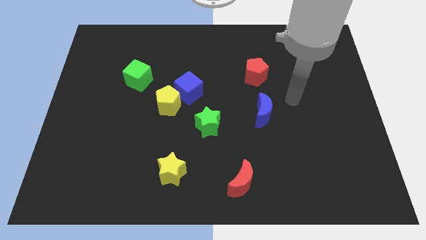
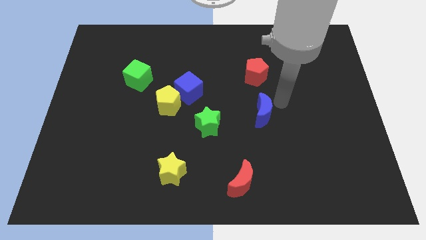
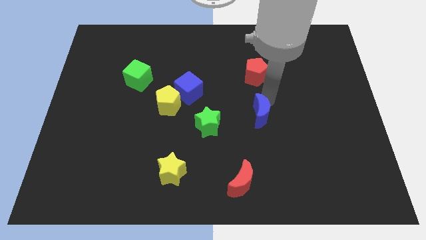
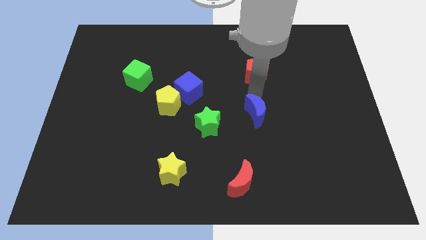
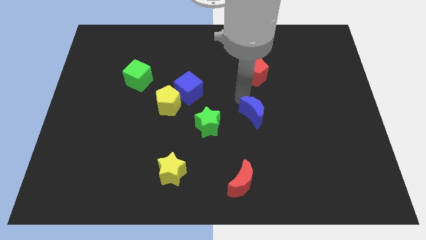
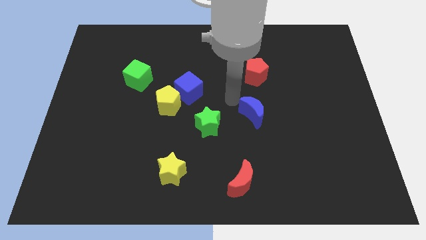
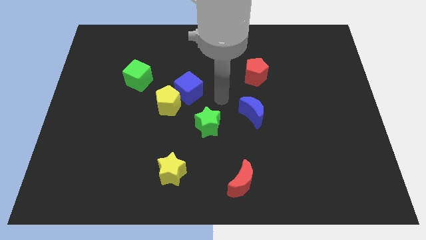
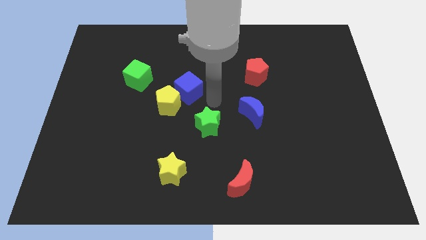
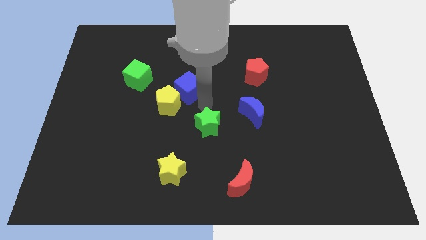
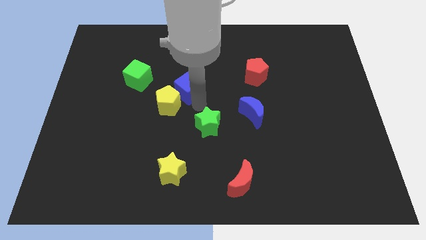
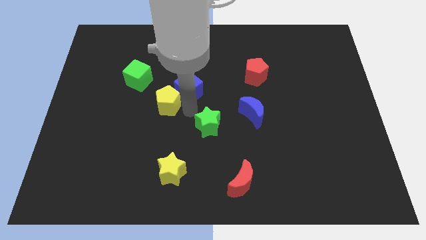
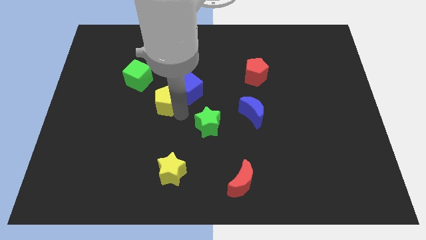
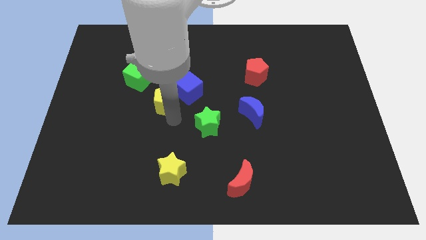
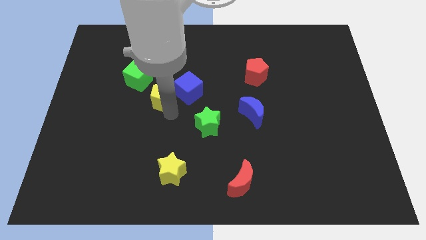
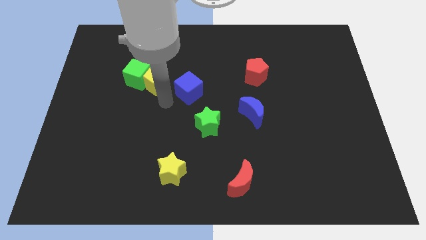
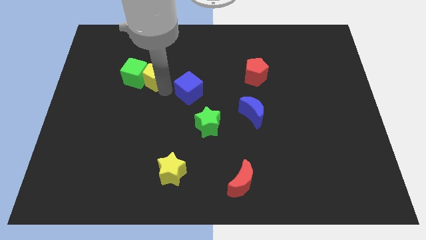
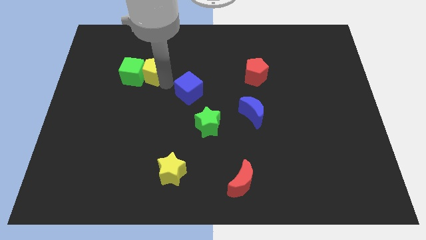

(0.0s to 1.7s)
separate the blue cube from the yellow pentagon

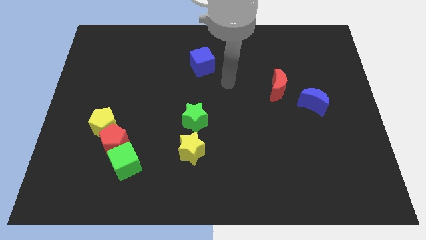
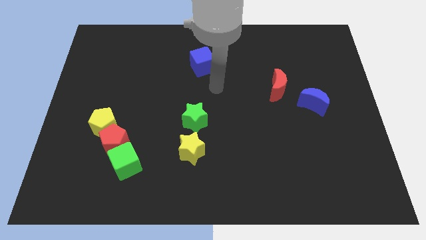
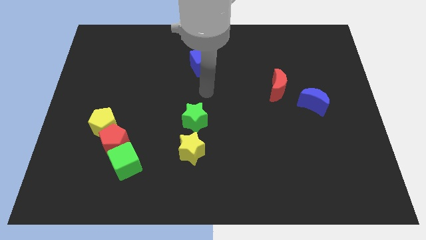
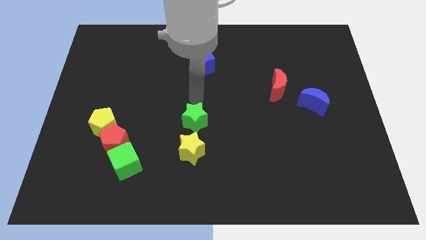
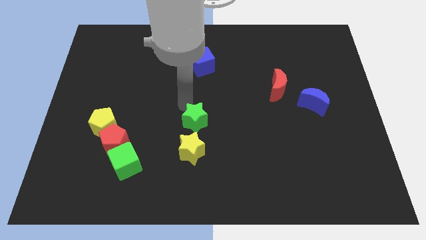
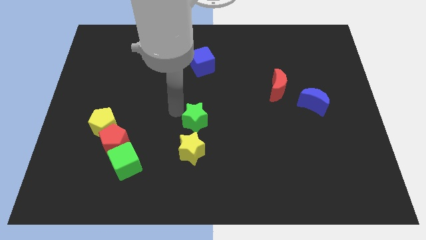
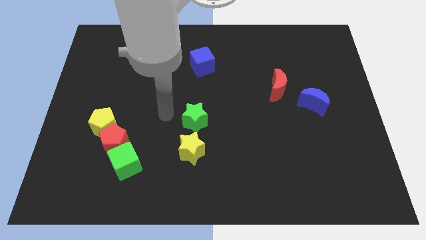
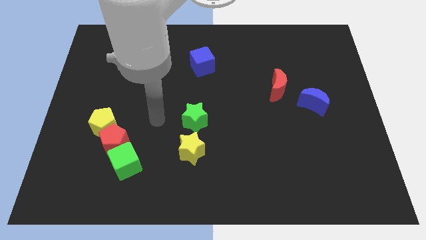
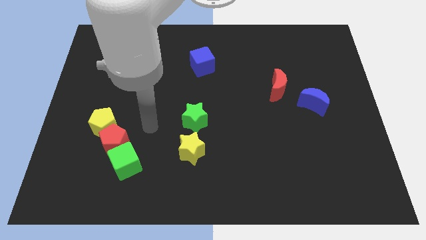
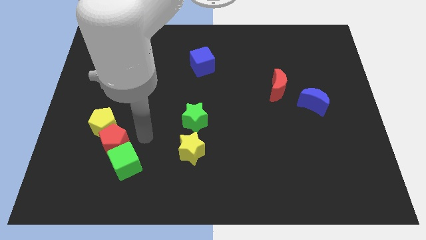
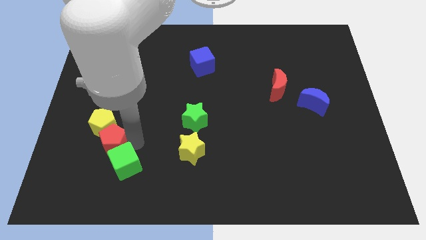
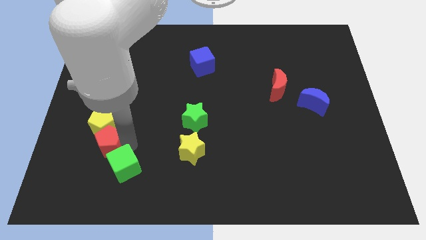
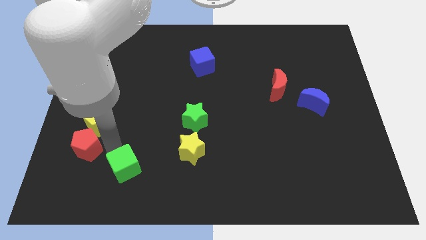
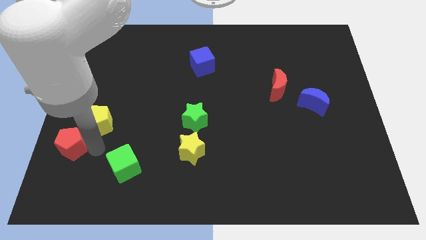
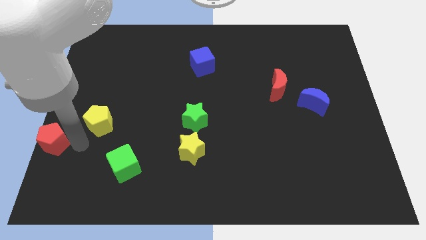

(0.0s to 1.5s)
move the yellow pentagon away from the red pentagon

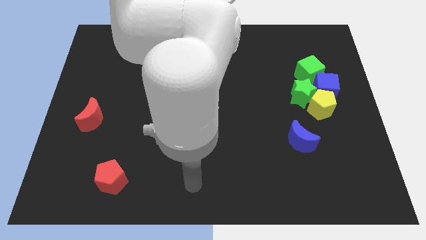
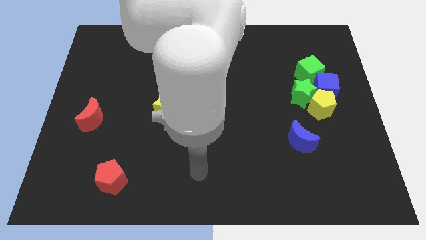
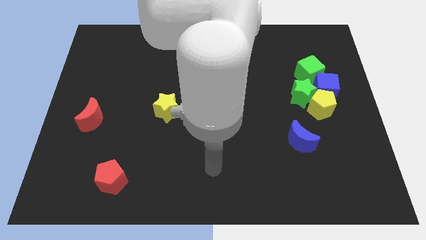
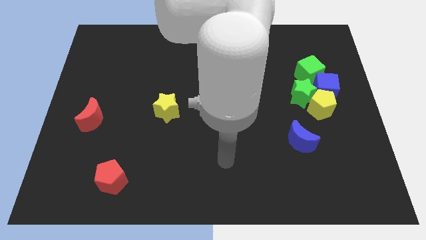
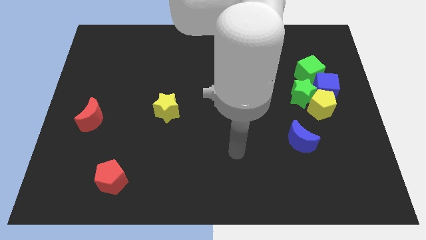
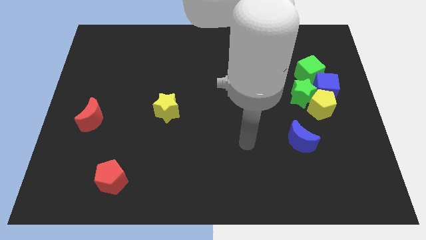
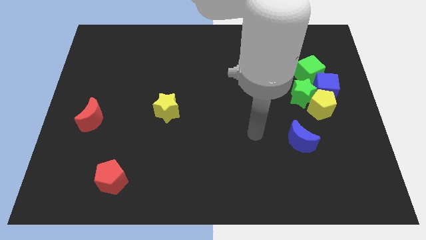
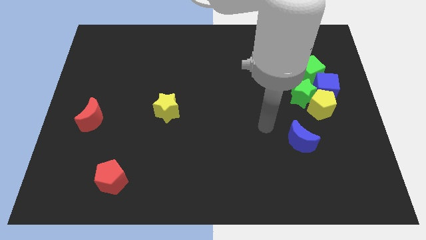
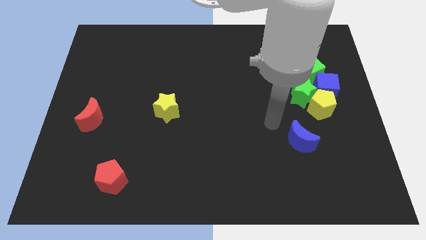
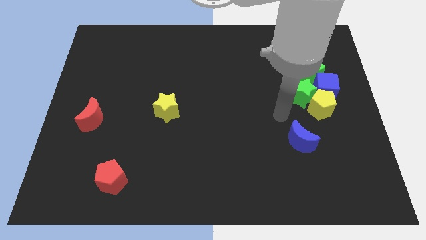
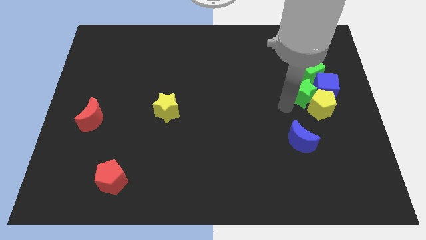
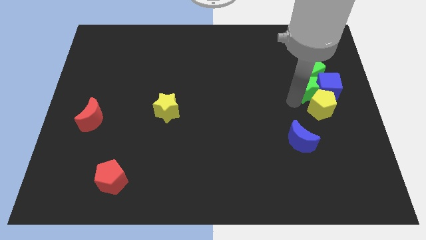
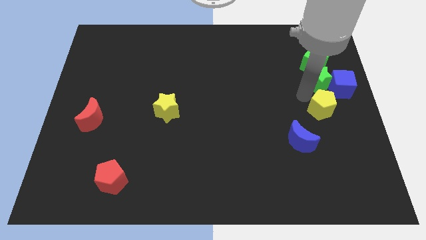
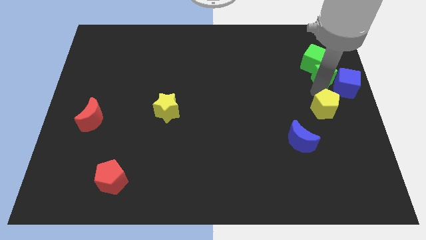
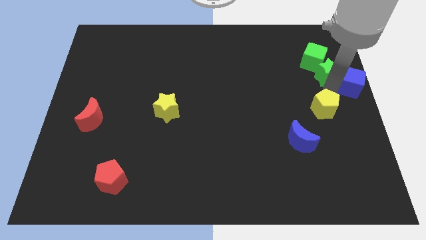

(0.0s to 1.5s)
pull the yellow pentagon apart from the green star and blue cube

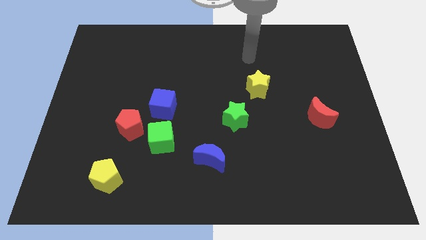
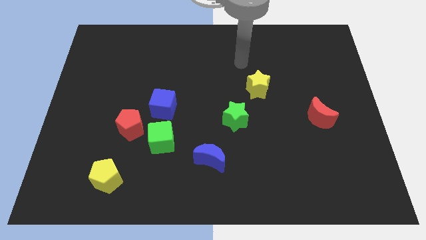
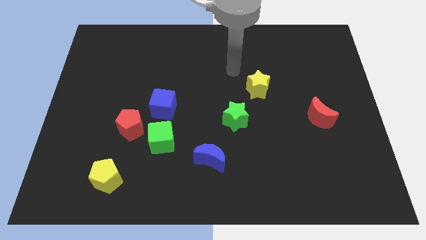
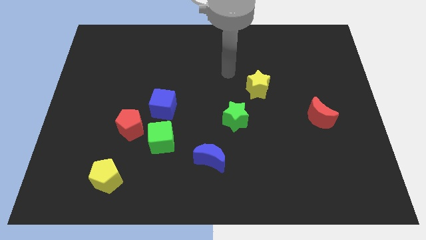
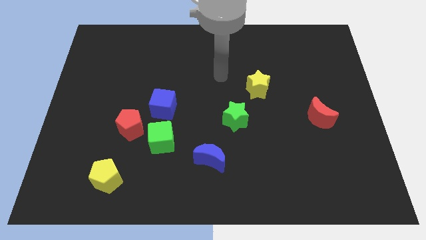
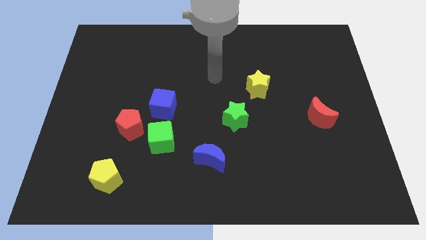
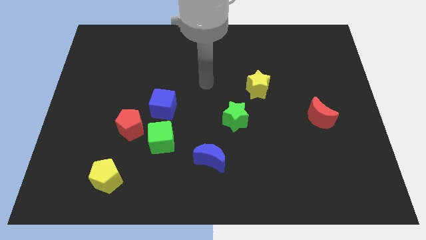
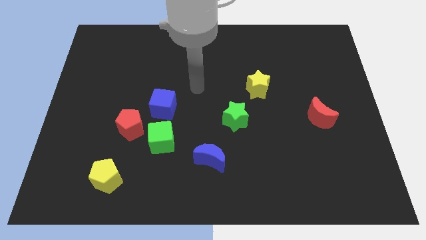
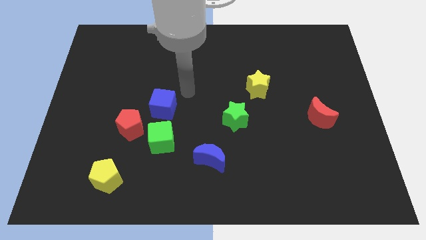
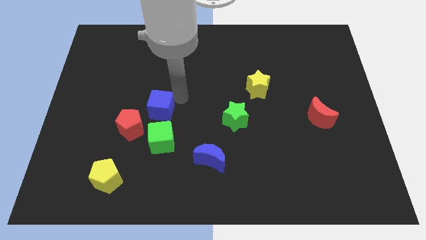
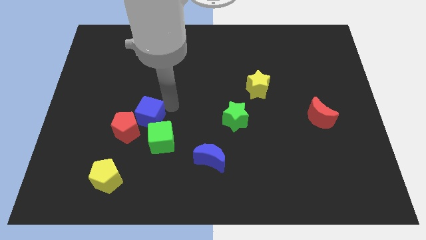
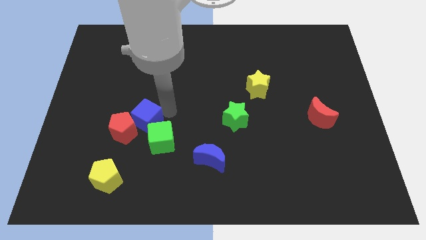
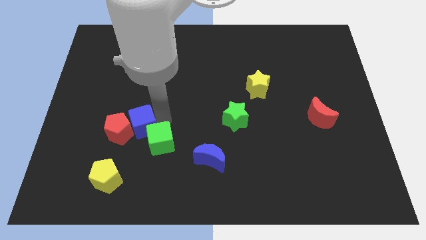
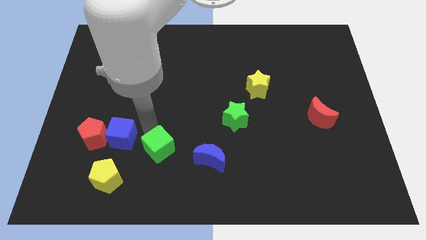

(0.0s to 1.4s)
move the red pentagon away from the green cube and blue cube

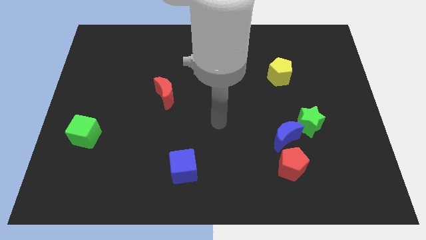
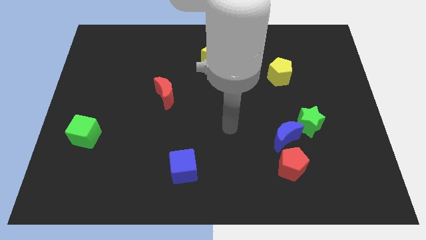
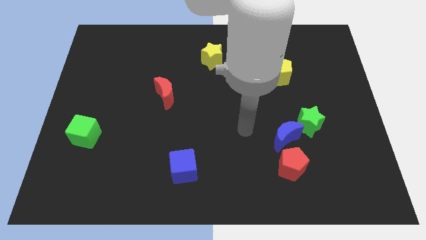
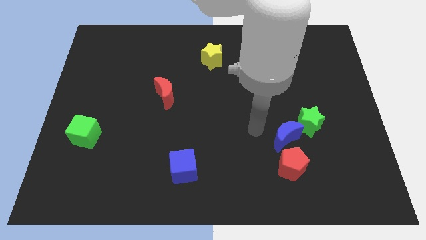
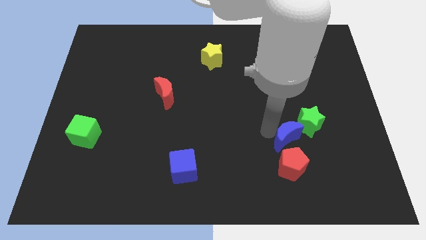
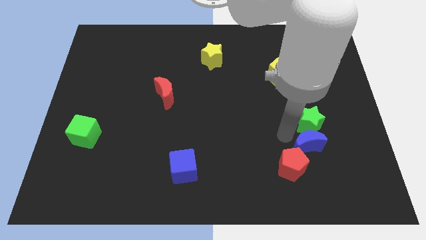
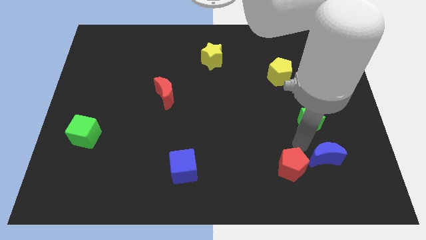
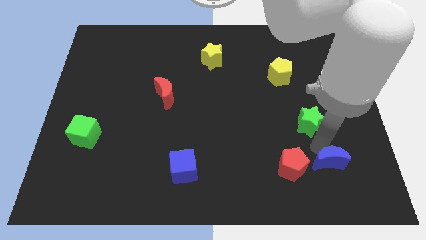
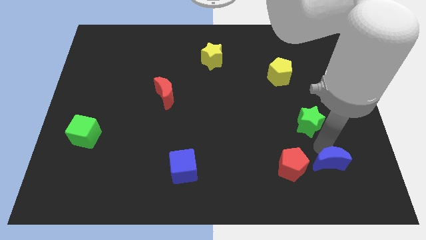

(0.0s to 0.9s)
move the green star away from the blue moon

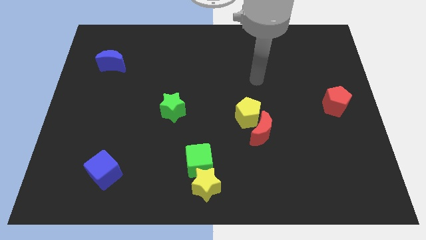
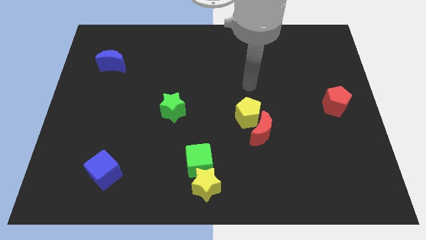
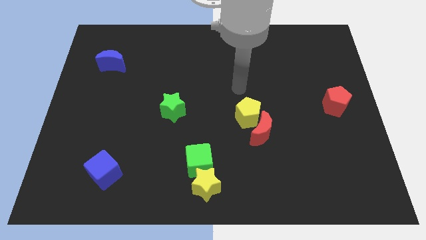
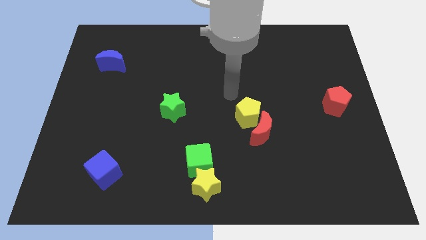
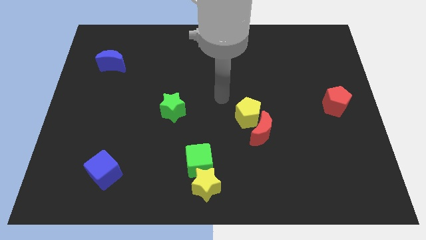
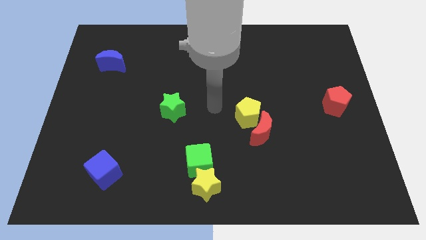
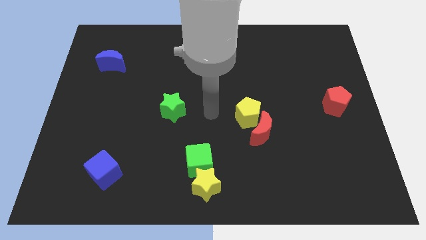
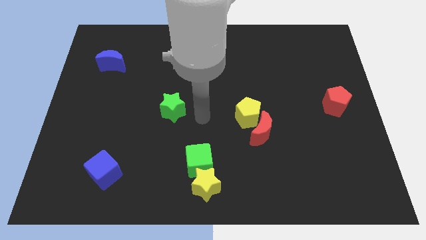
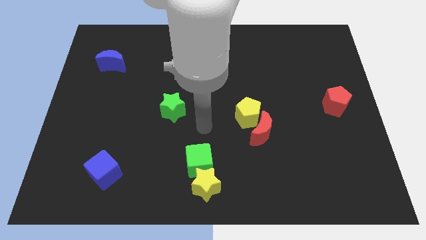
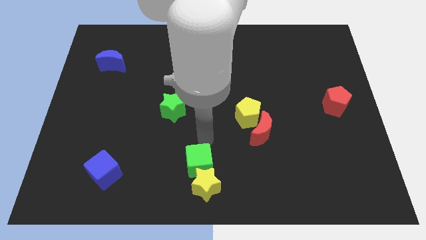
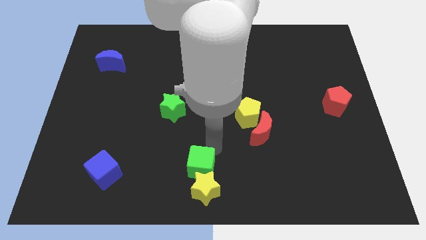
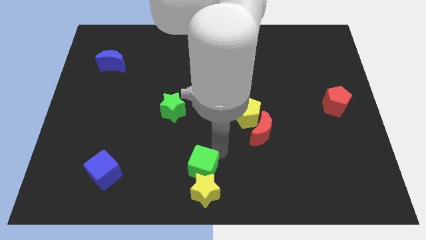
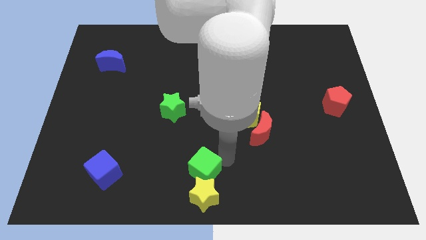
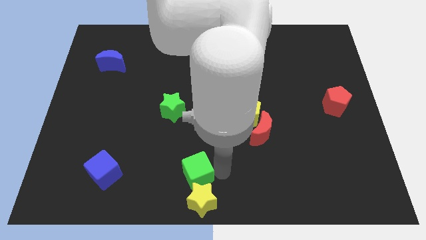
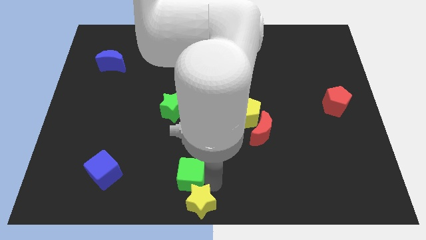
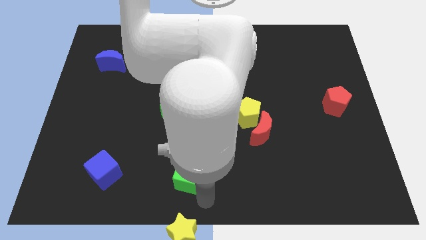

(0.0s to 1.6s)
pull the green cube apart from the yellow star

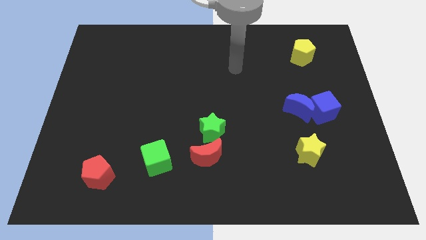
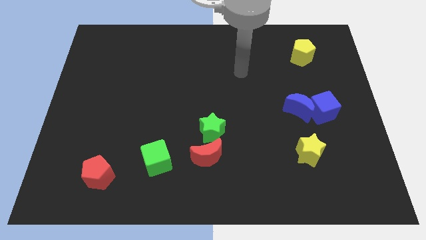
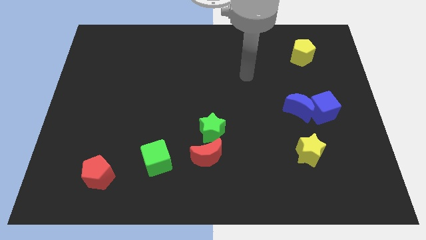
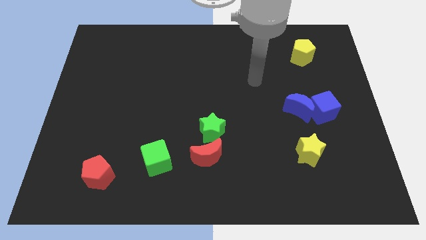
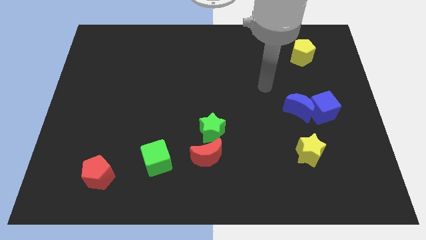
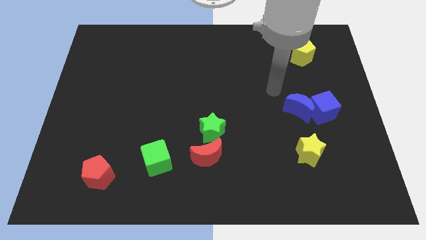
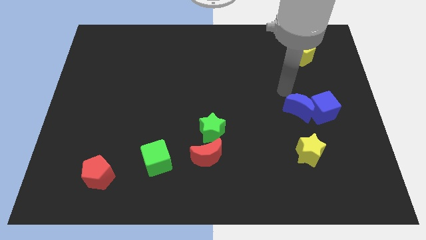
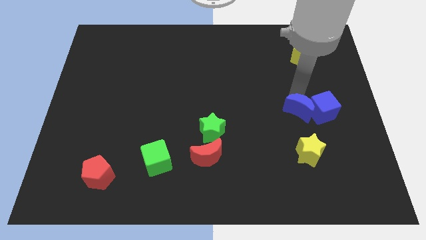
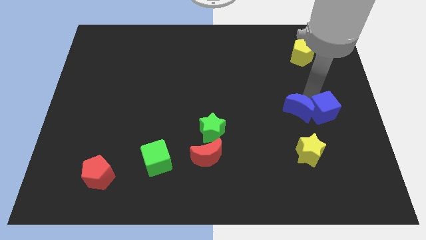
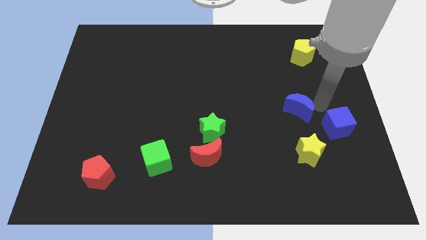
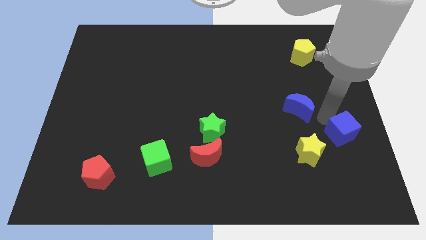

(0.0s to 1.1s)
move the blue moon away from the blue cube
